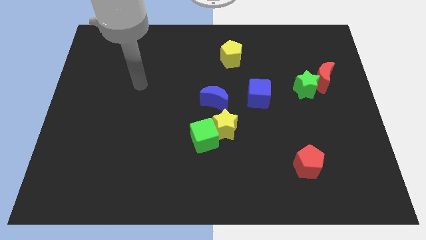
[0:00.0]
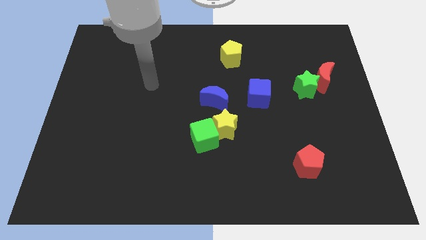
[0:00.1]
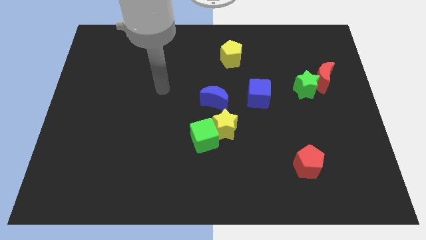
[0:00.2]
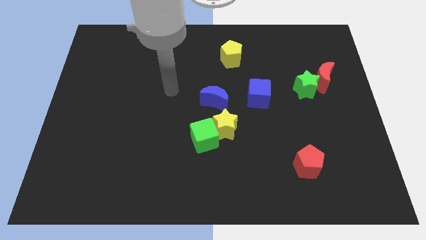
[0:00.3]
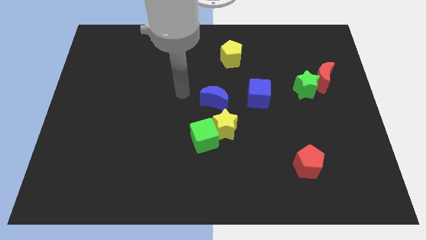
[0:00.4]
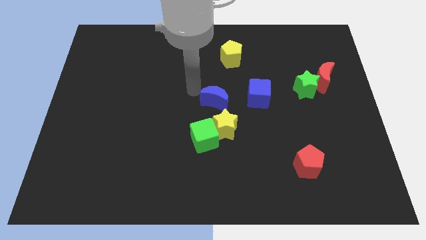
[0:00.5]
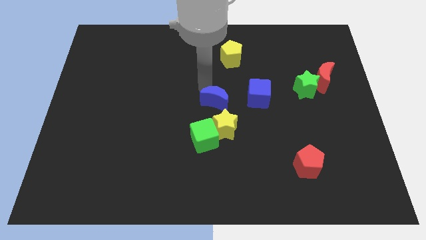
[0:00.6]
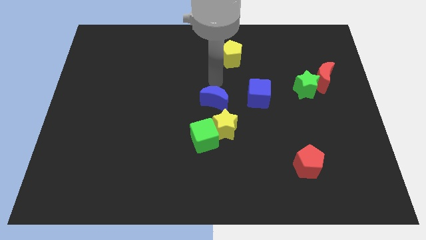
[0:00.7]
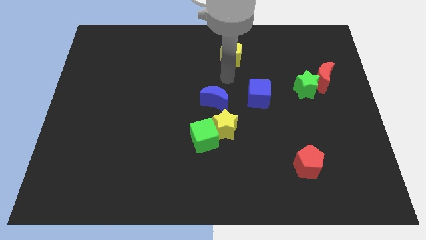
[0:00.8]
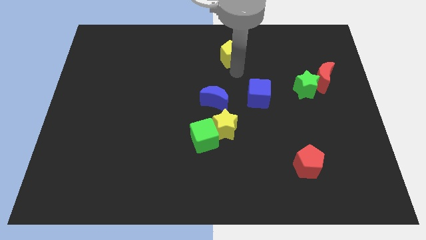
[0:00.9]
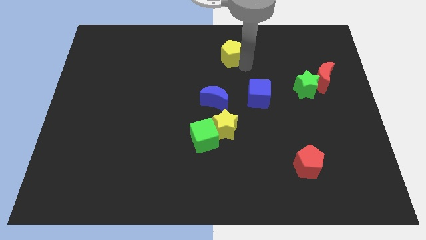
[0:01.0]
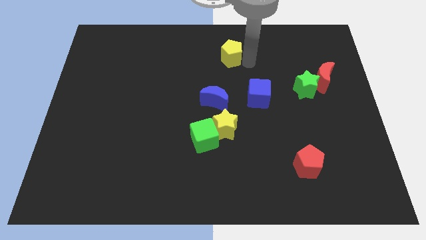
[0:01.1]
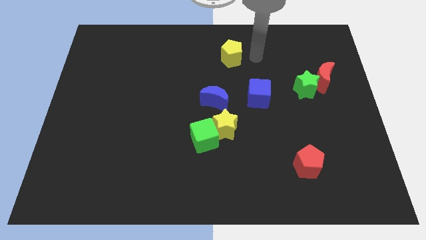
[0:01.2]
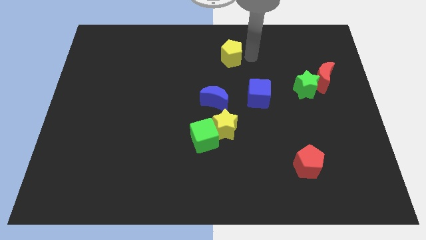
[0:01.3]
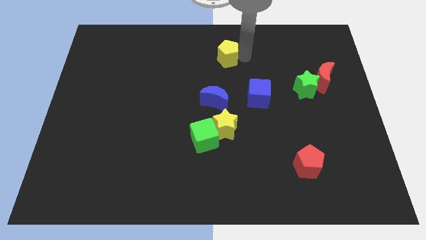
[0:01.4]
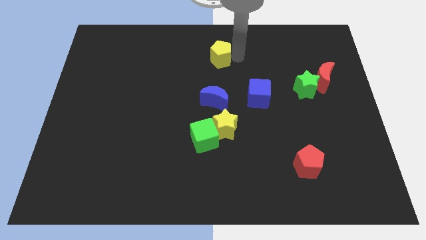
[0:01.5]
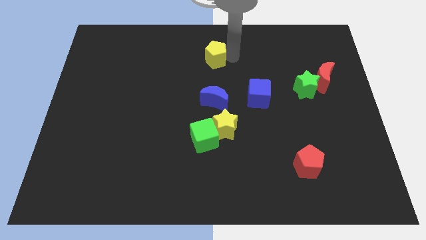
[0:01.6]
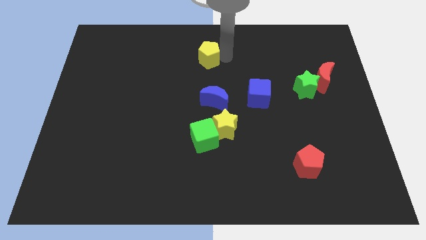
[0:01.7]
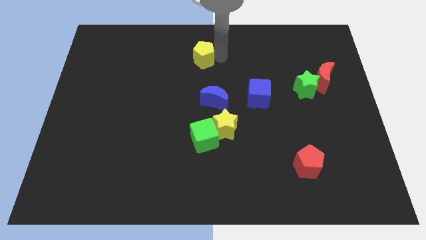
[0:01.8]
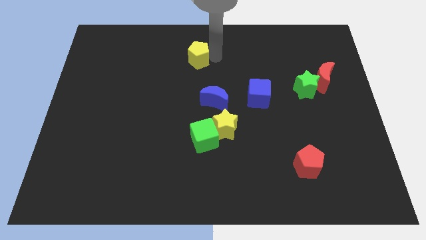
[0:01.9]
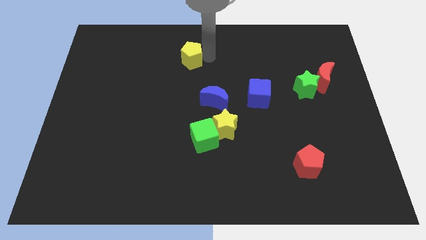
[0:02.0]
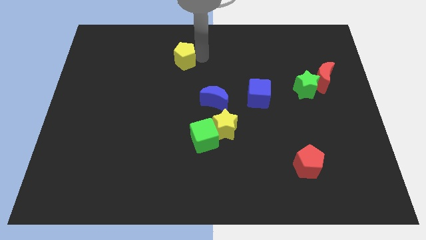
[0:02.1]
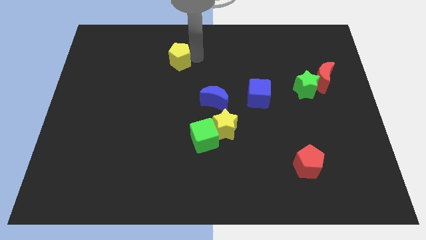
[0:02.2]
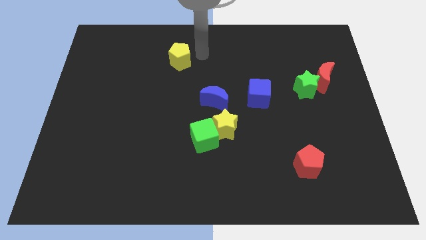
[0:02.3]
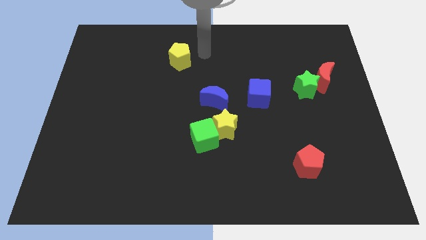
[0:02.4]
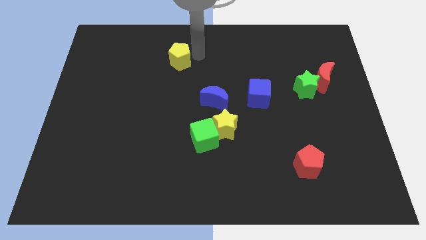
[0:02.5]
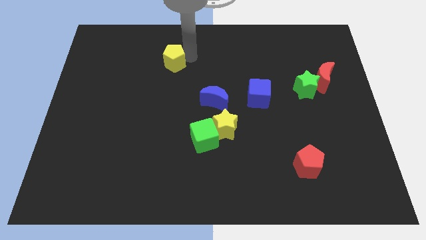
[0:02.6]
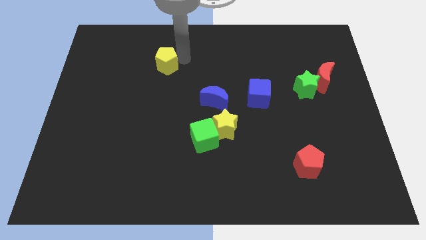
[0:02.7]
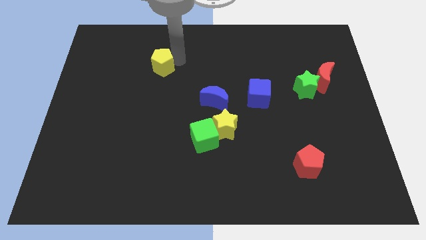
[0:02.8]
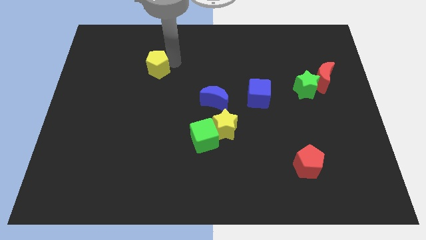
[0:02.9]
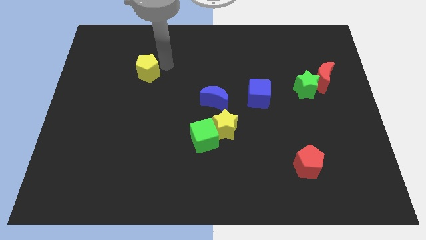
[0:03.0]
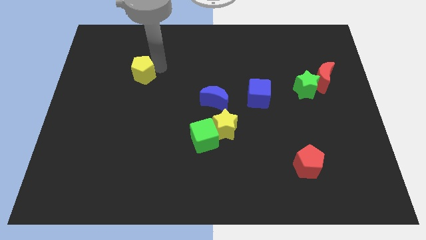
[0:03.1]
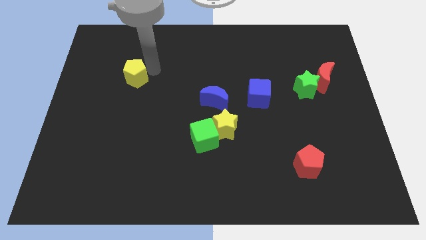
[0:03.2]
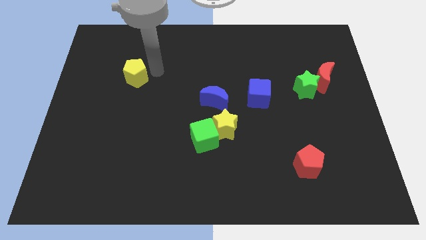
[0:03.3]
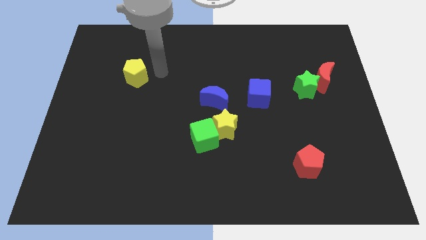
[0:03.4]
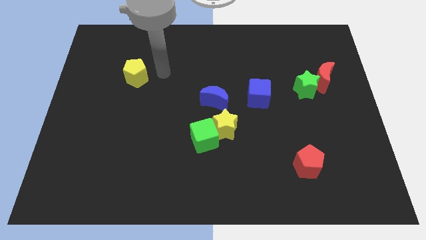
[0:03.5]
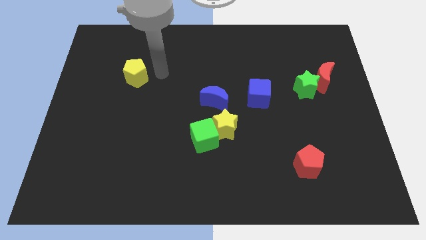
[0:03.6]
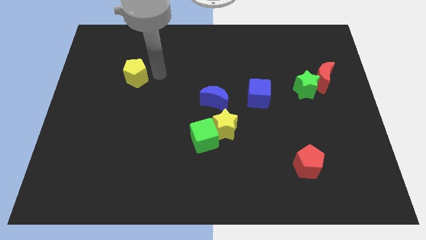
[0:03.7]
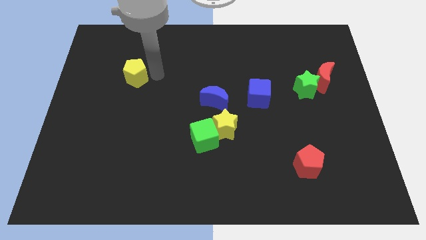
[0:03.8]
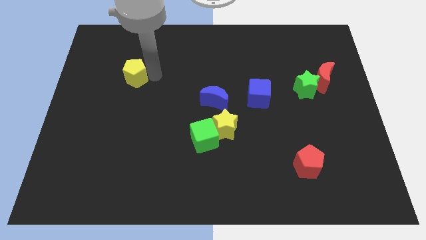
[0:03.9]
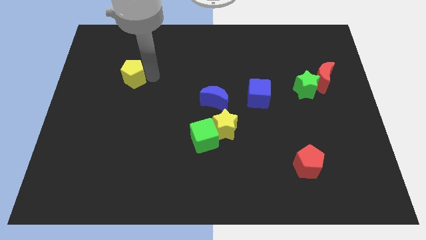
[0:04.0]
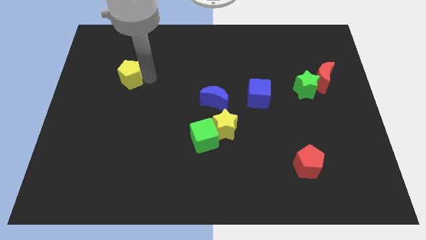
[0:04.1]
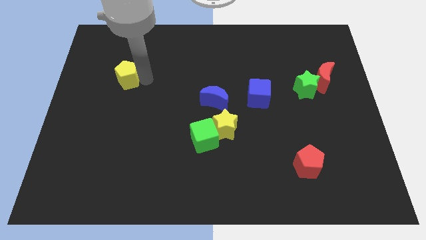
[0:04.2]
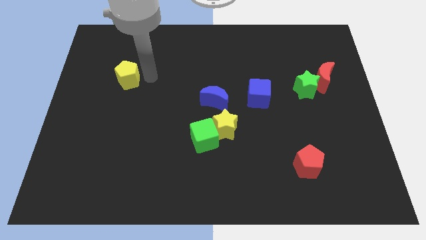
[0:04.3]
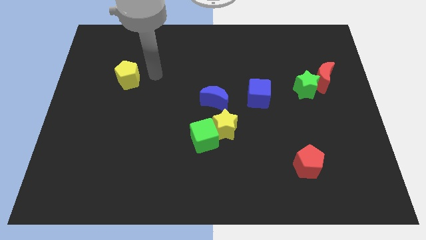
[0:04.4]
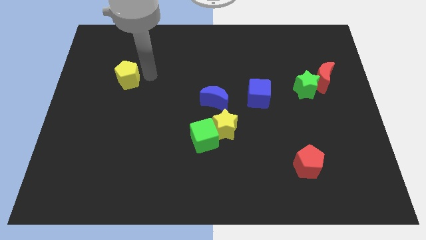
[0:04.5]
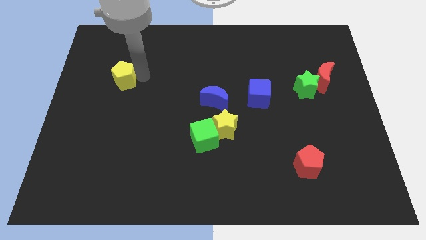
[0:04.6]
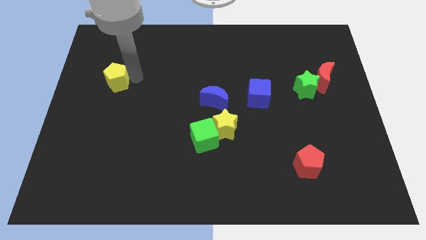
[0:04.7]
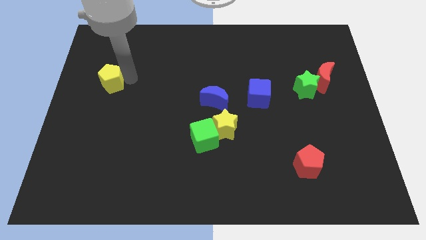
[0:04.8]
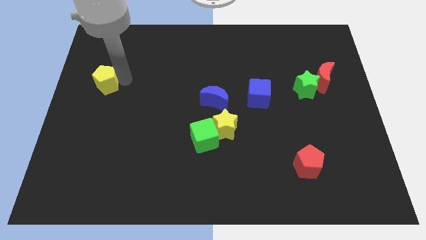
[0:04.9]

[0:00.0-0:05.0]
push the yellow pentagon to the left side of the board
